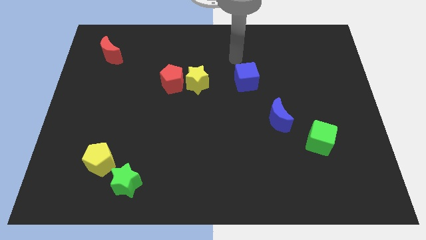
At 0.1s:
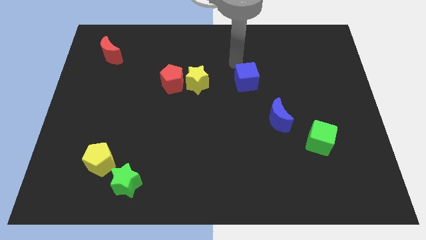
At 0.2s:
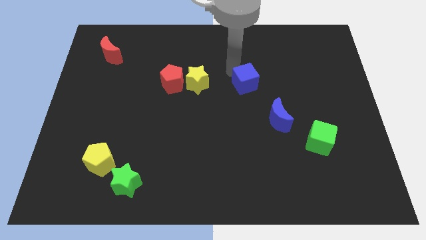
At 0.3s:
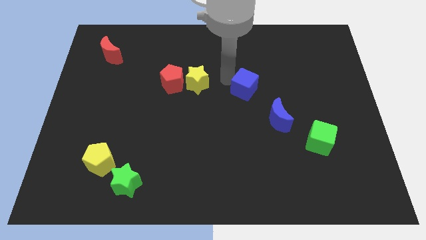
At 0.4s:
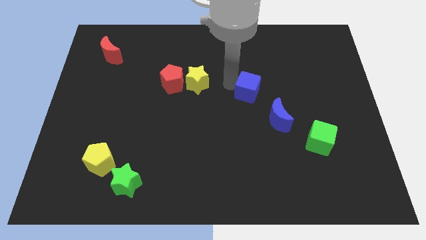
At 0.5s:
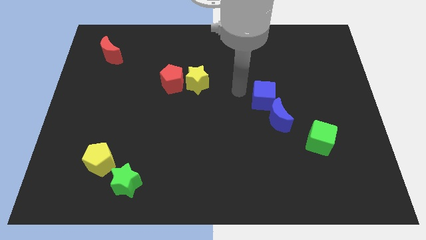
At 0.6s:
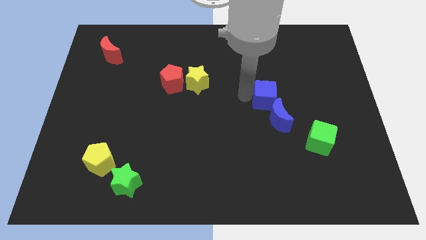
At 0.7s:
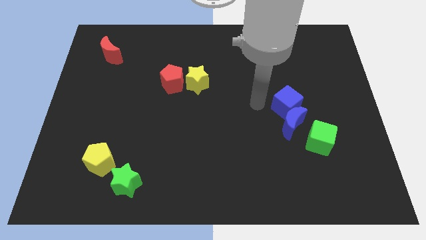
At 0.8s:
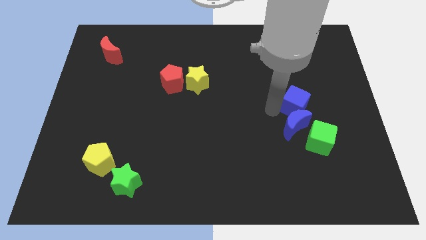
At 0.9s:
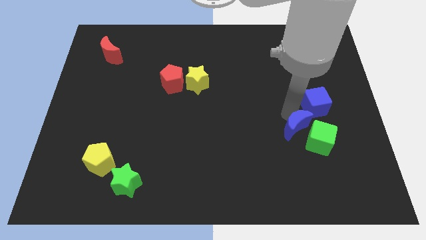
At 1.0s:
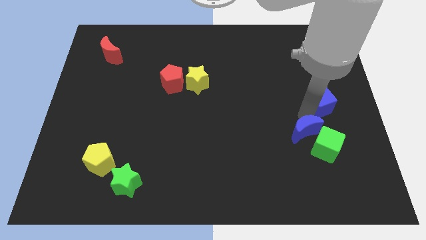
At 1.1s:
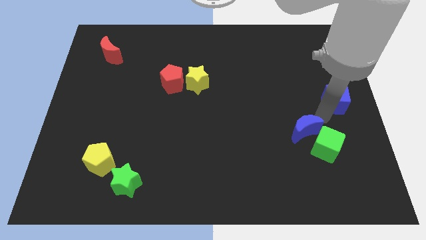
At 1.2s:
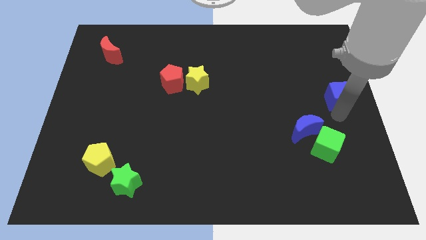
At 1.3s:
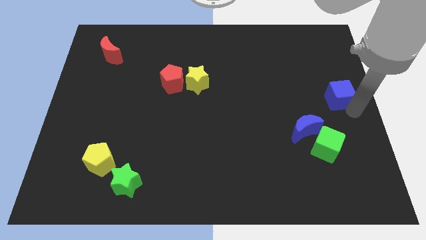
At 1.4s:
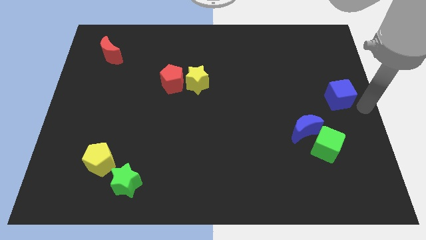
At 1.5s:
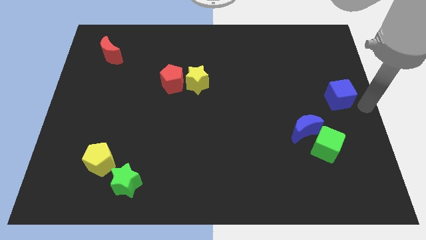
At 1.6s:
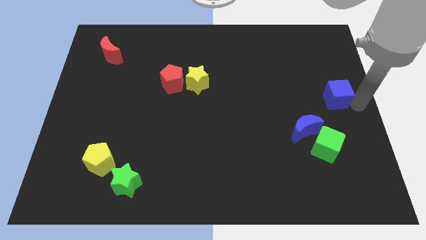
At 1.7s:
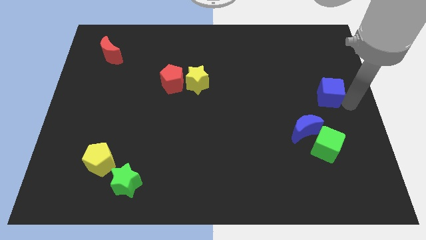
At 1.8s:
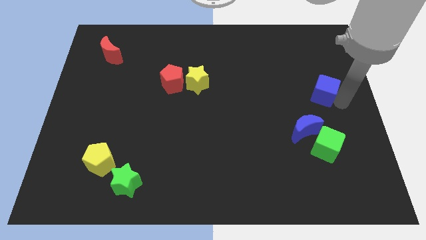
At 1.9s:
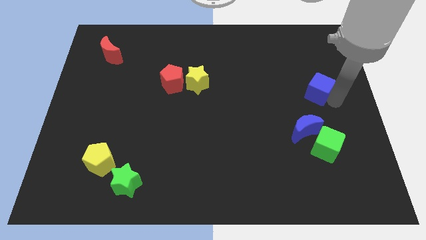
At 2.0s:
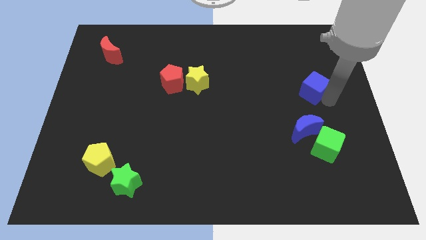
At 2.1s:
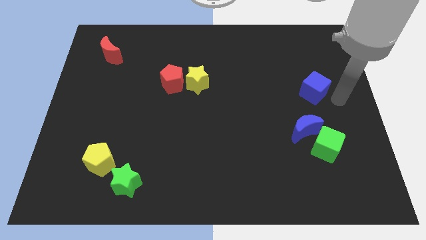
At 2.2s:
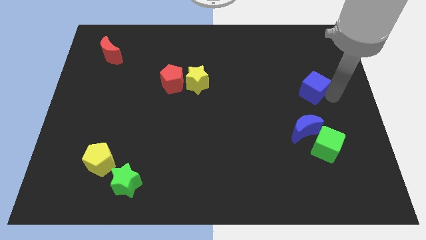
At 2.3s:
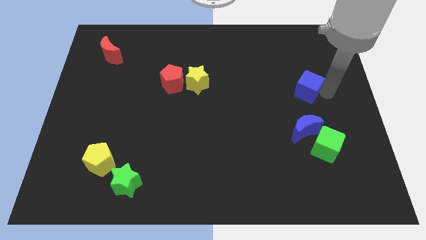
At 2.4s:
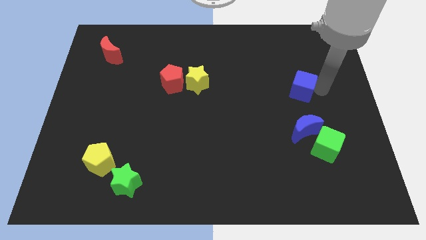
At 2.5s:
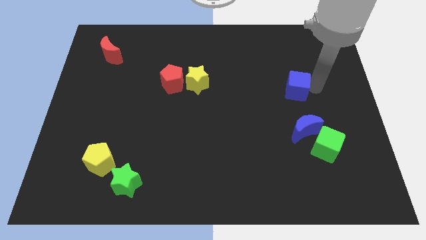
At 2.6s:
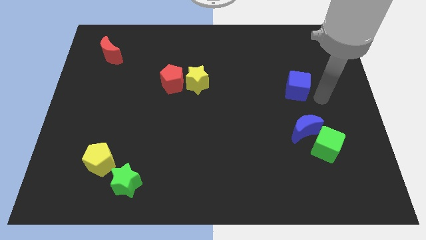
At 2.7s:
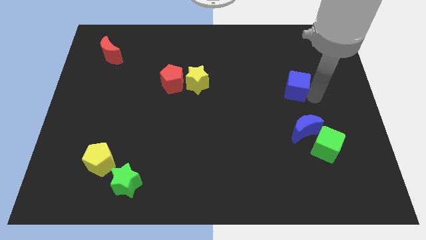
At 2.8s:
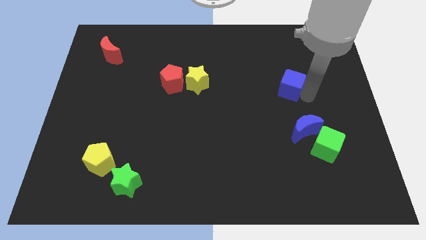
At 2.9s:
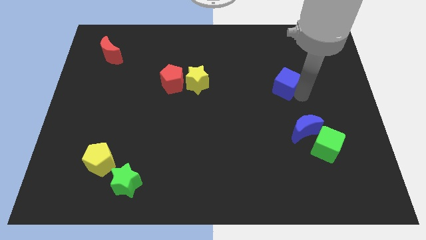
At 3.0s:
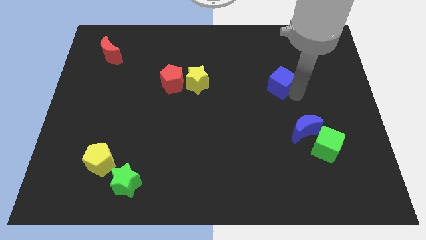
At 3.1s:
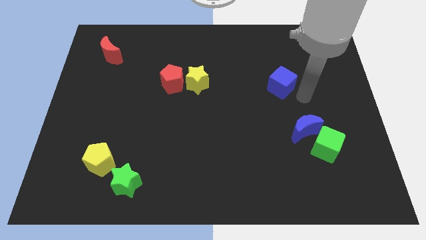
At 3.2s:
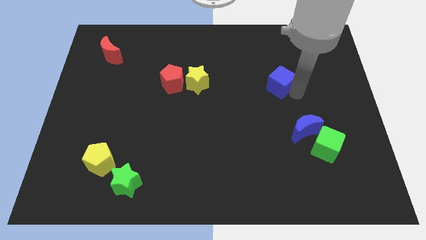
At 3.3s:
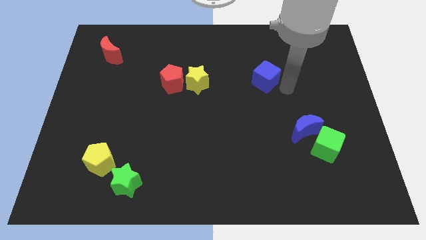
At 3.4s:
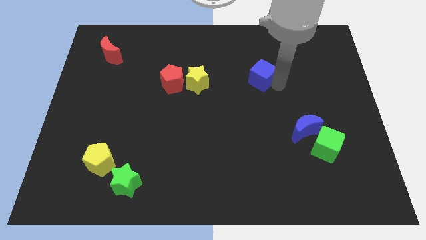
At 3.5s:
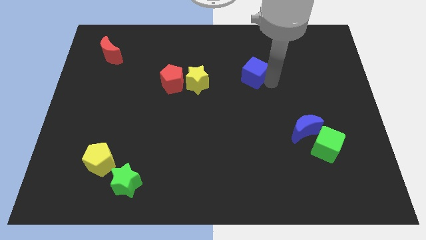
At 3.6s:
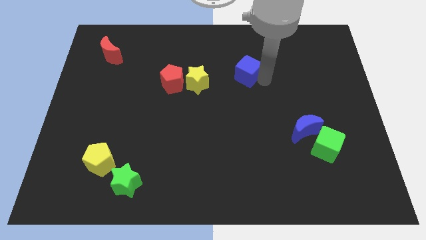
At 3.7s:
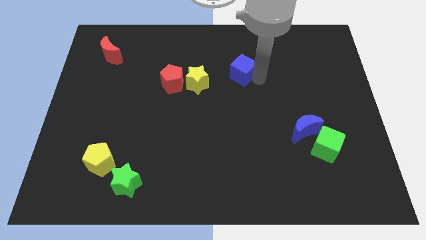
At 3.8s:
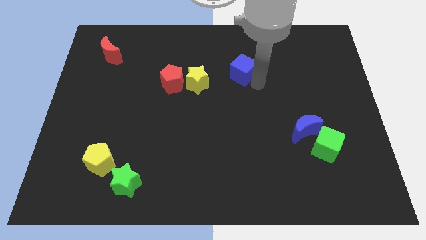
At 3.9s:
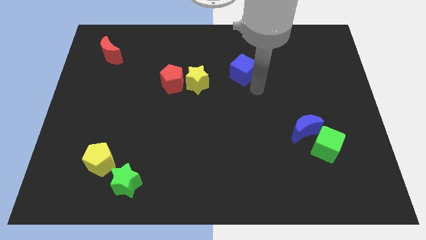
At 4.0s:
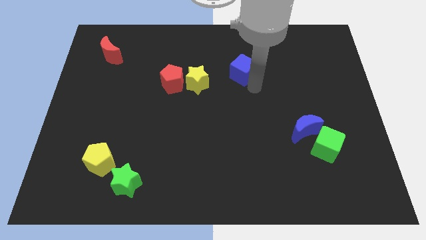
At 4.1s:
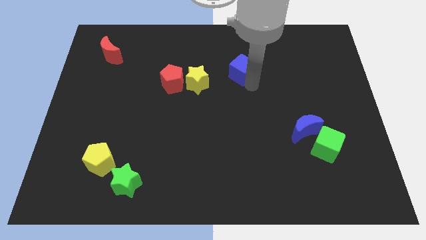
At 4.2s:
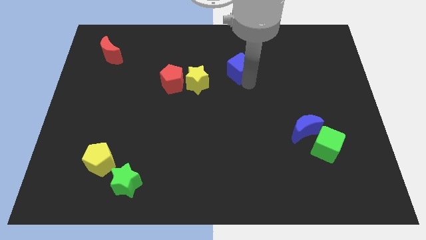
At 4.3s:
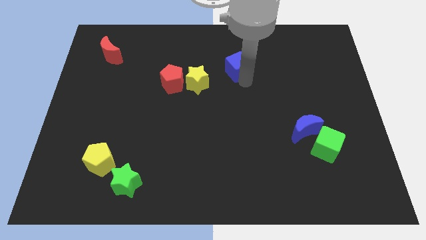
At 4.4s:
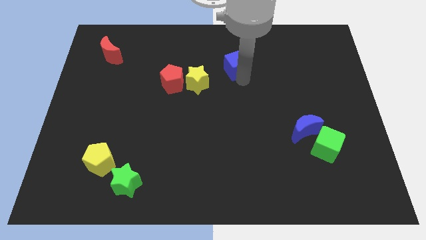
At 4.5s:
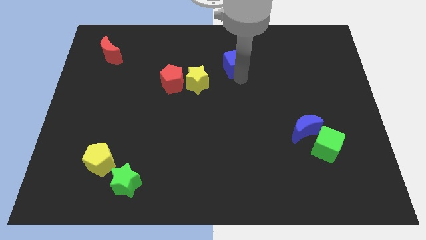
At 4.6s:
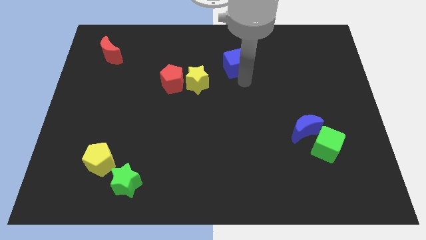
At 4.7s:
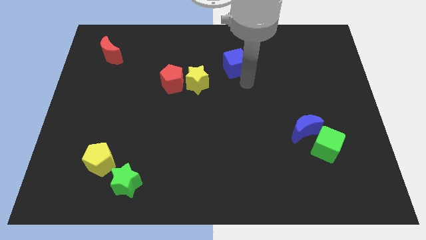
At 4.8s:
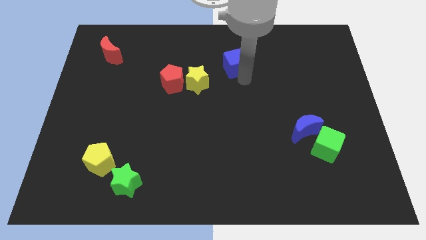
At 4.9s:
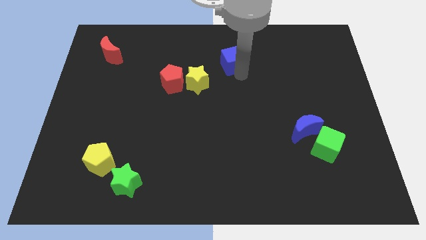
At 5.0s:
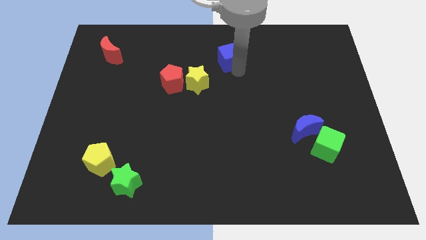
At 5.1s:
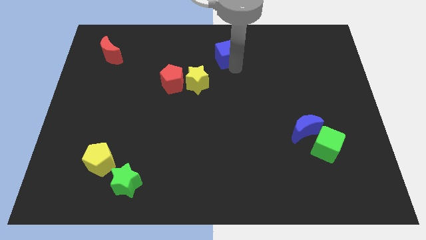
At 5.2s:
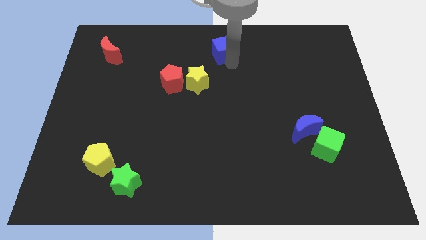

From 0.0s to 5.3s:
move the blue cube to the top

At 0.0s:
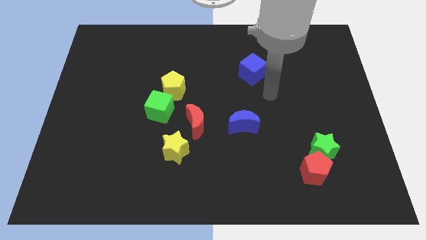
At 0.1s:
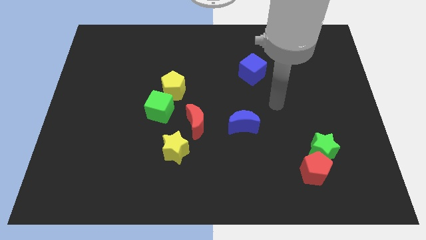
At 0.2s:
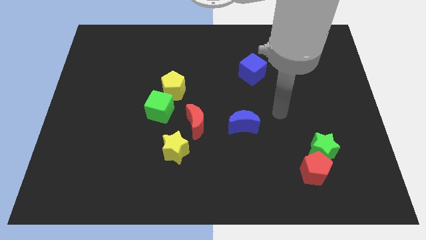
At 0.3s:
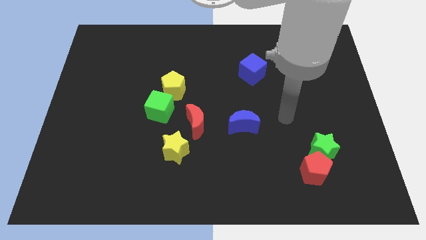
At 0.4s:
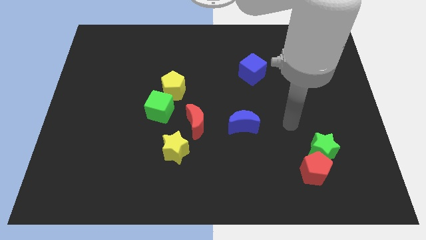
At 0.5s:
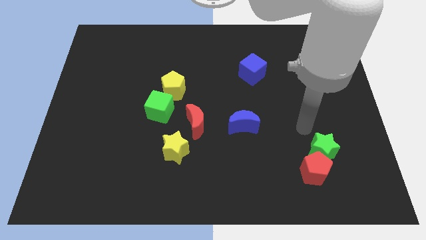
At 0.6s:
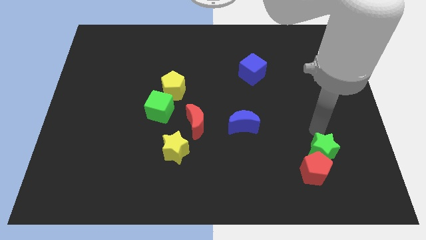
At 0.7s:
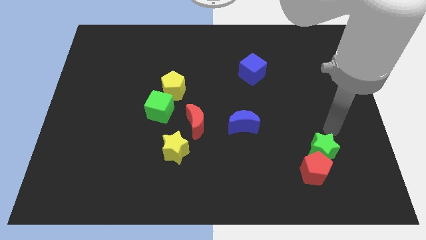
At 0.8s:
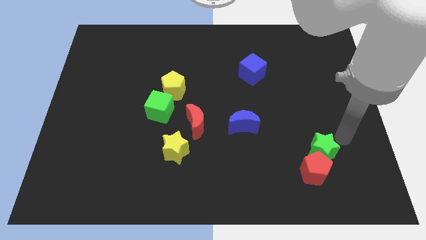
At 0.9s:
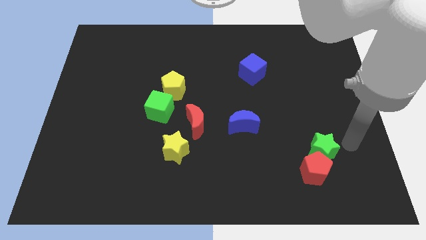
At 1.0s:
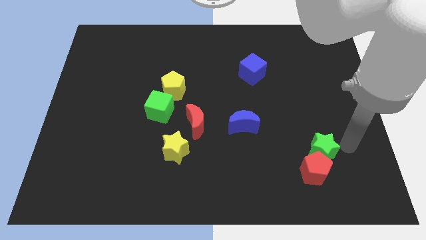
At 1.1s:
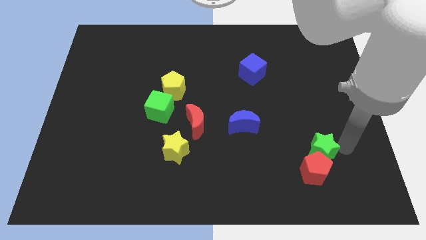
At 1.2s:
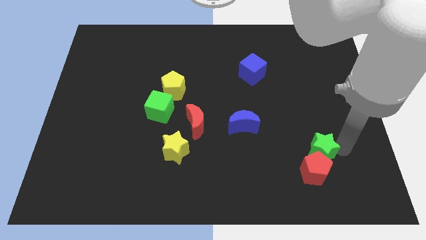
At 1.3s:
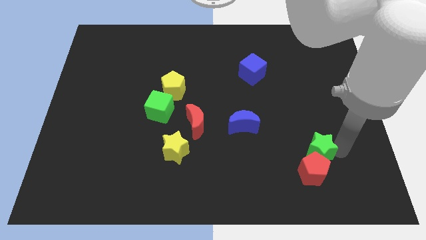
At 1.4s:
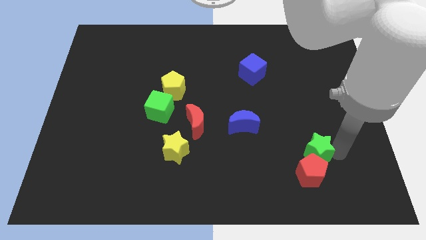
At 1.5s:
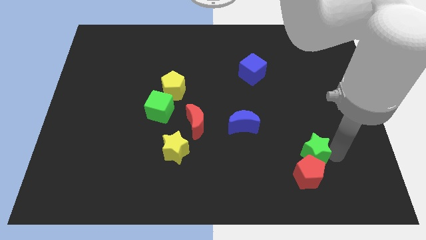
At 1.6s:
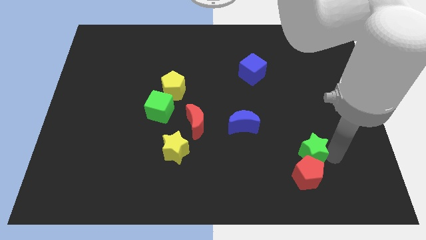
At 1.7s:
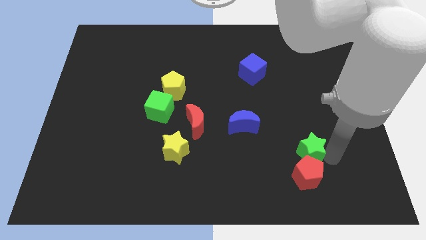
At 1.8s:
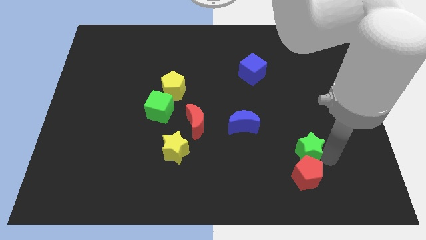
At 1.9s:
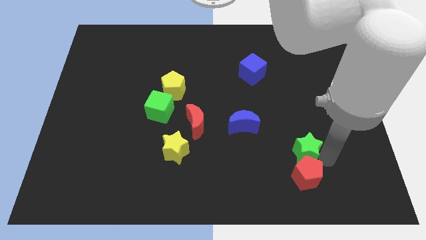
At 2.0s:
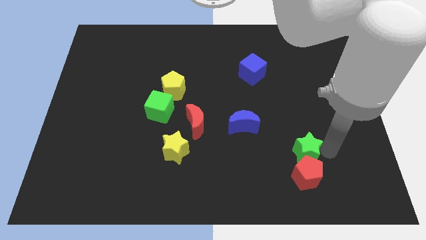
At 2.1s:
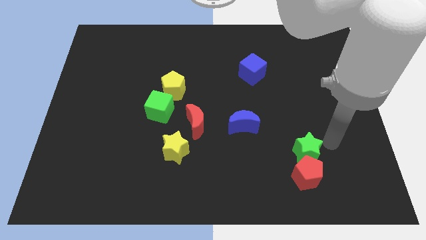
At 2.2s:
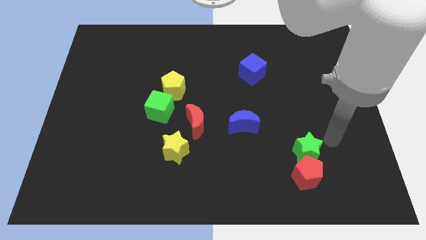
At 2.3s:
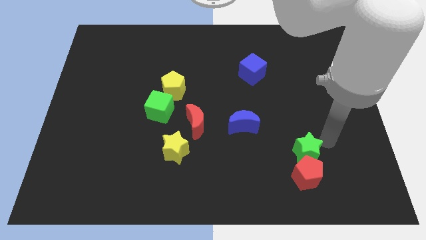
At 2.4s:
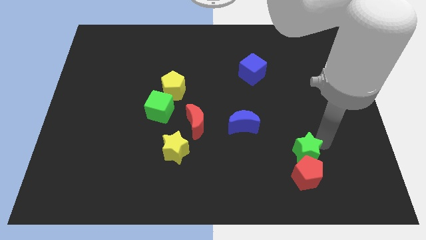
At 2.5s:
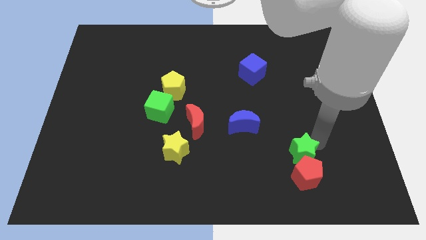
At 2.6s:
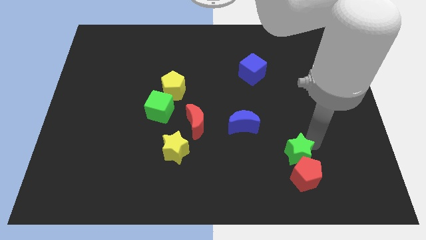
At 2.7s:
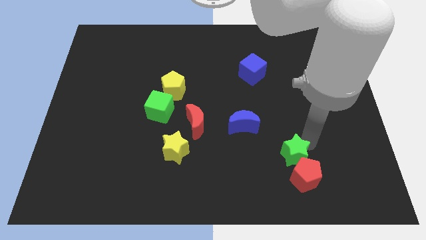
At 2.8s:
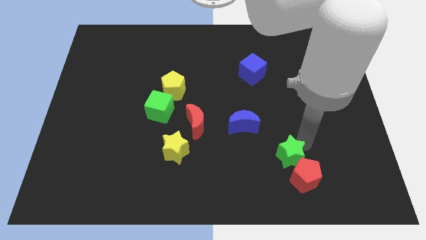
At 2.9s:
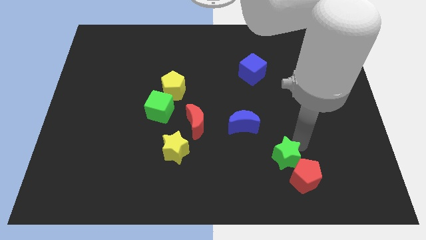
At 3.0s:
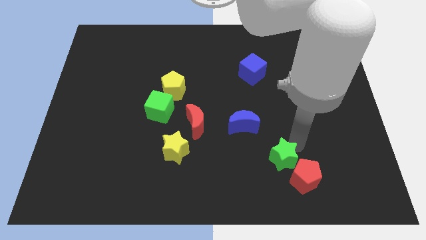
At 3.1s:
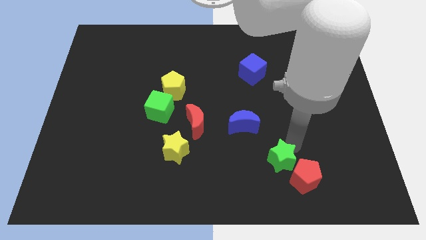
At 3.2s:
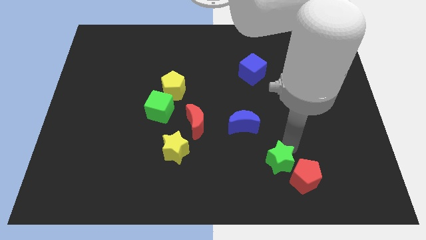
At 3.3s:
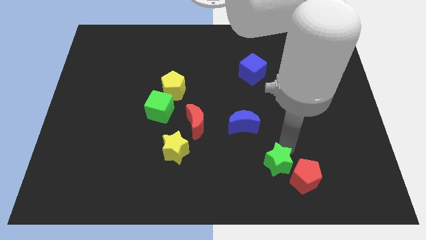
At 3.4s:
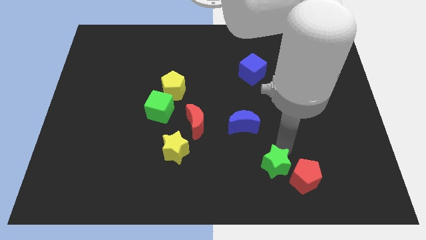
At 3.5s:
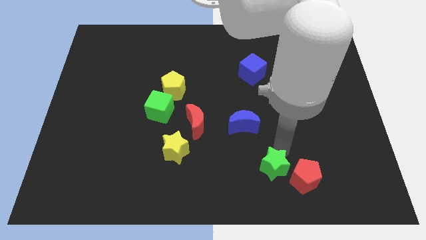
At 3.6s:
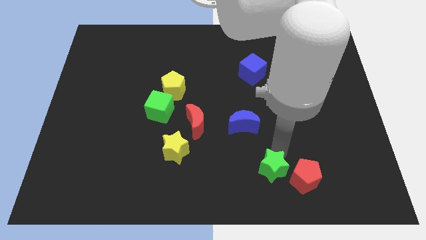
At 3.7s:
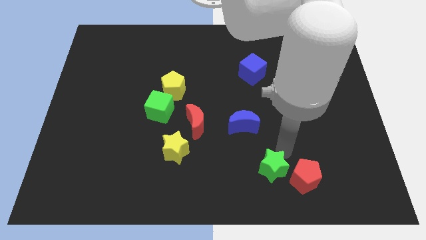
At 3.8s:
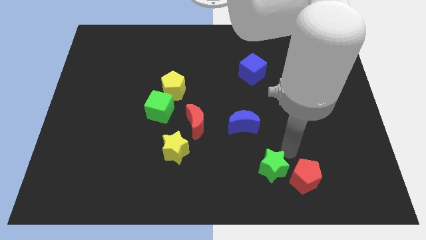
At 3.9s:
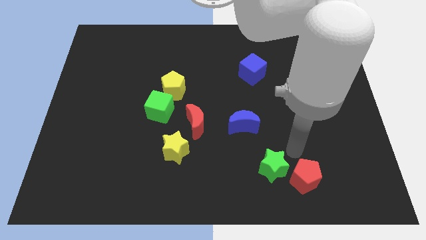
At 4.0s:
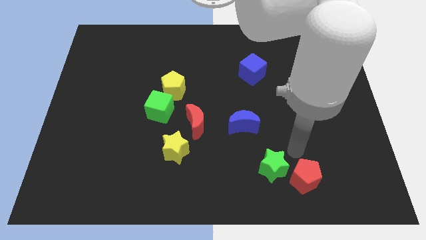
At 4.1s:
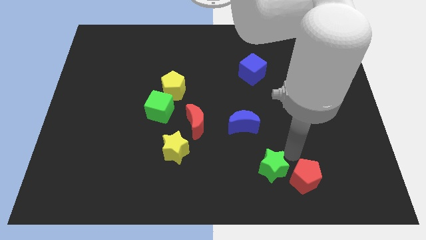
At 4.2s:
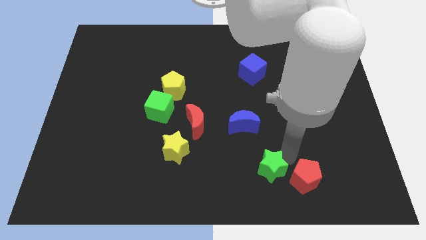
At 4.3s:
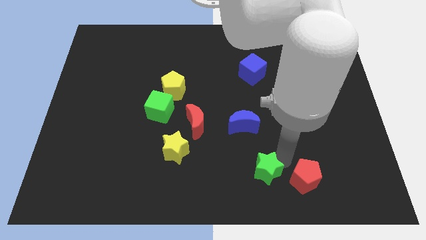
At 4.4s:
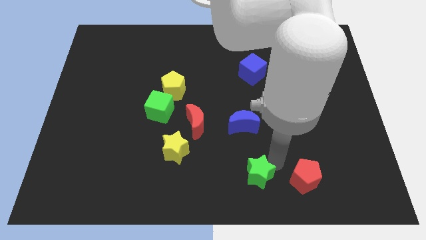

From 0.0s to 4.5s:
put the green star to the bottom side
